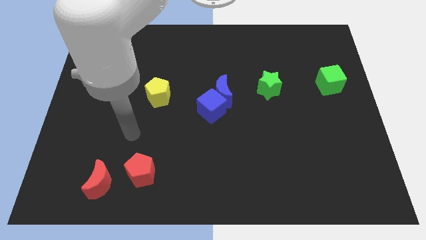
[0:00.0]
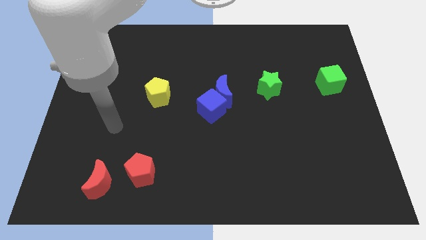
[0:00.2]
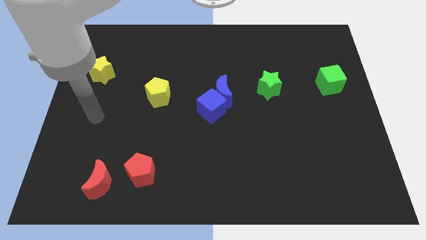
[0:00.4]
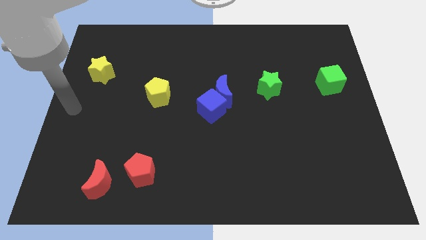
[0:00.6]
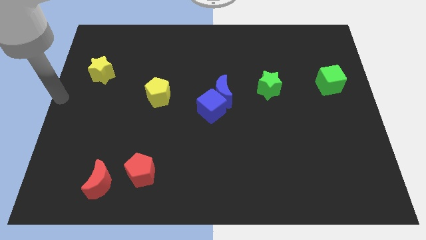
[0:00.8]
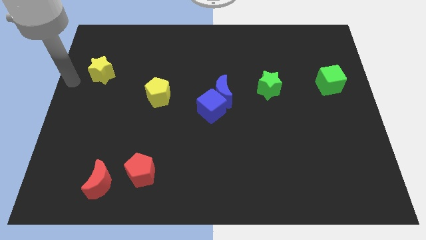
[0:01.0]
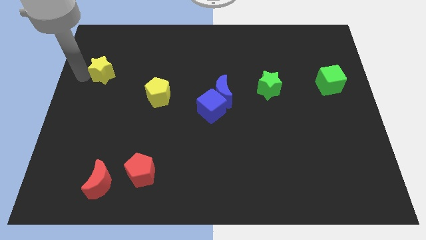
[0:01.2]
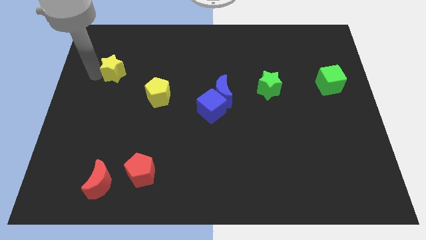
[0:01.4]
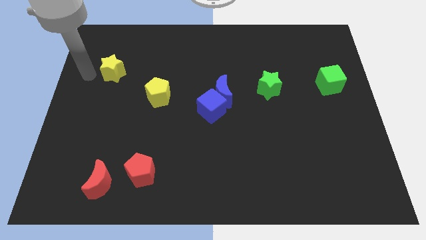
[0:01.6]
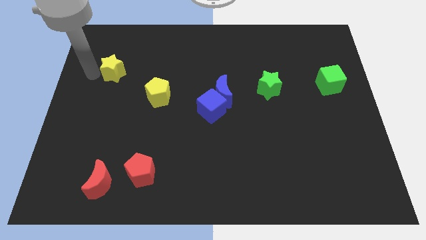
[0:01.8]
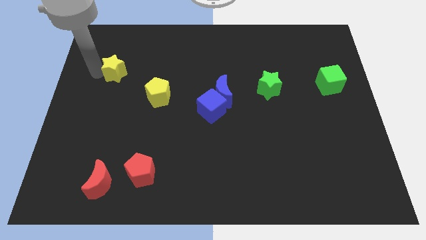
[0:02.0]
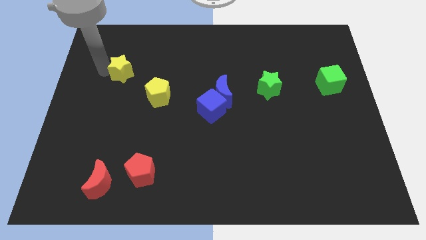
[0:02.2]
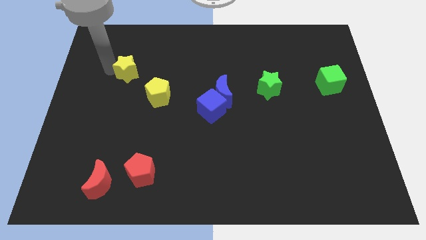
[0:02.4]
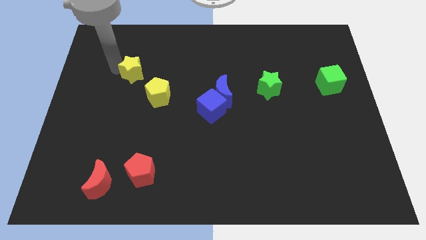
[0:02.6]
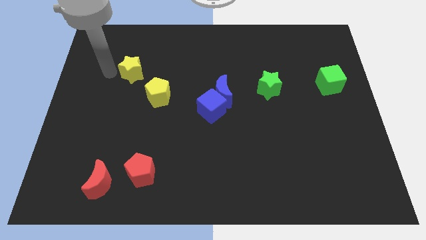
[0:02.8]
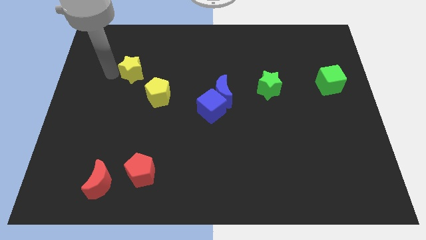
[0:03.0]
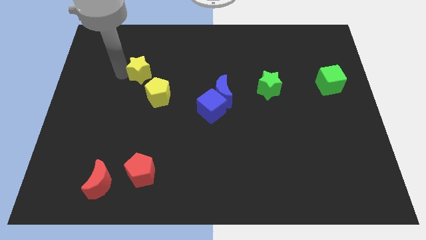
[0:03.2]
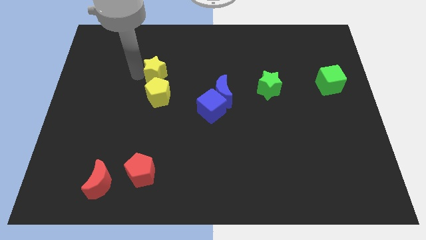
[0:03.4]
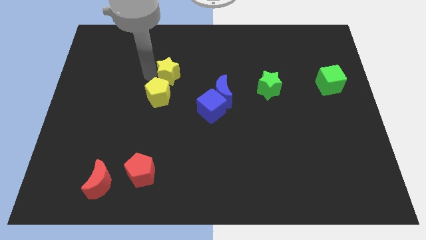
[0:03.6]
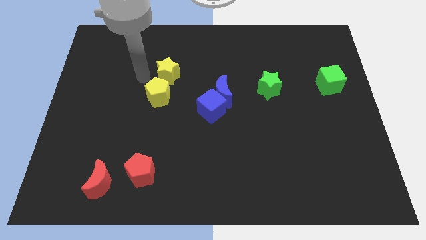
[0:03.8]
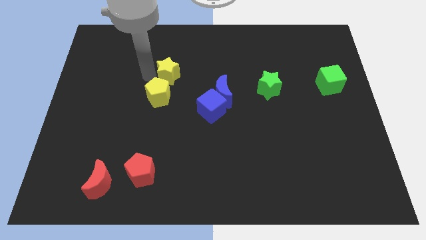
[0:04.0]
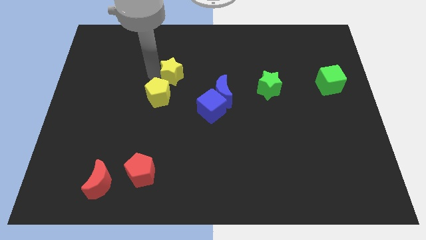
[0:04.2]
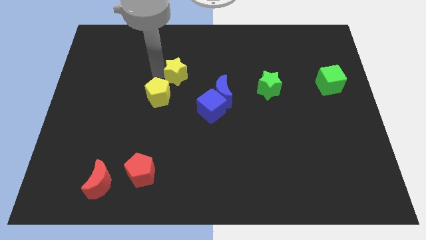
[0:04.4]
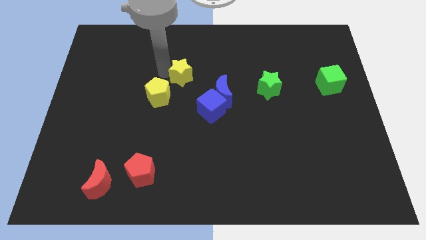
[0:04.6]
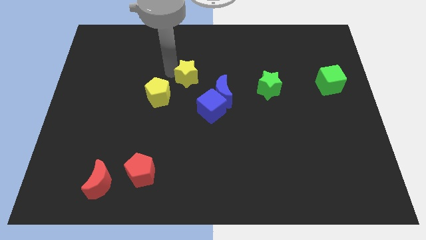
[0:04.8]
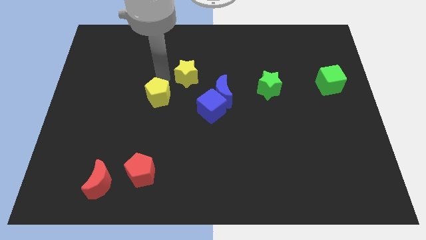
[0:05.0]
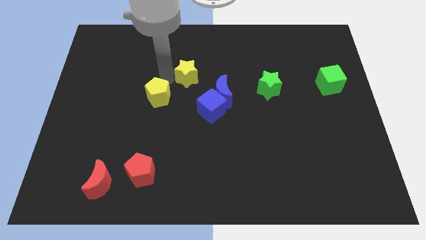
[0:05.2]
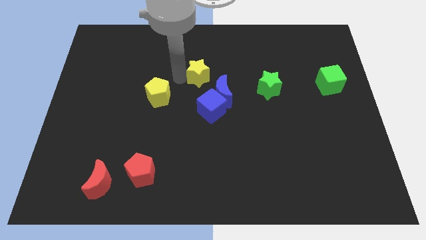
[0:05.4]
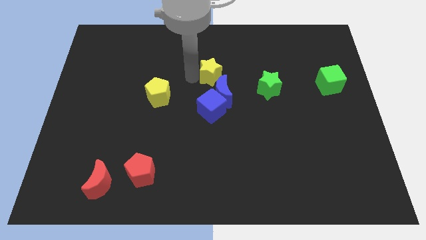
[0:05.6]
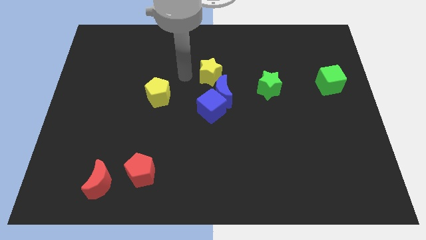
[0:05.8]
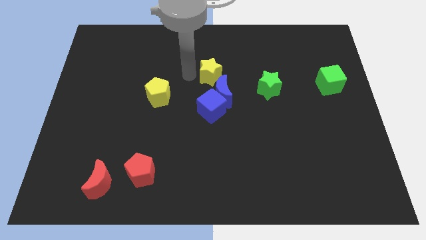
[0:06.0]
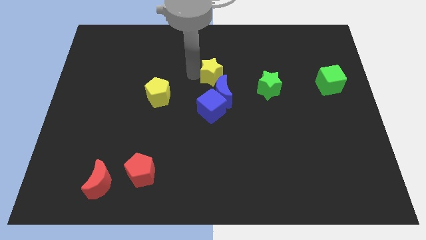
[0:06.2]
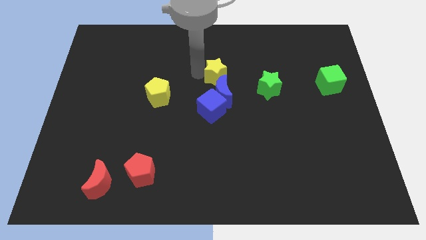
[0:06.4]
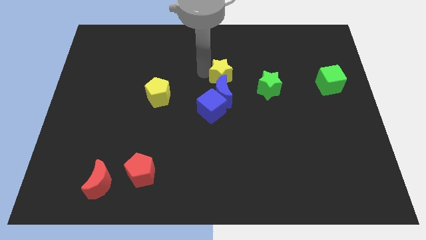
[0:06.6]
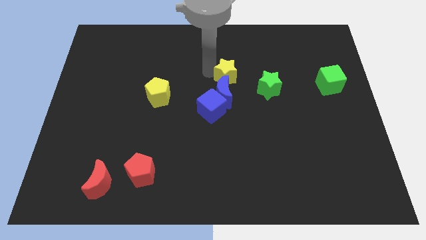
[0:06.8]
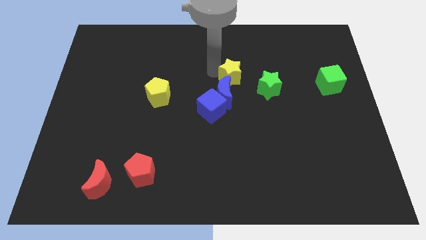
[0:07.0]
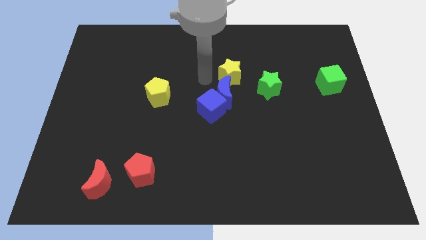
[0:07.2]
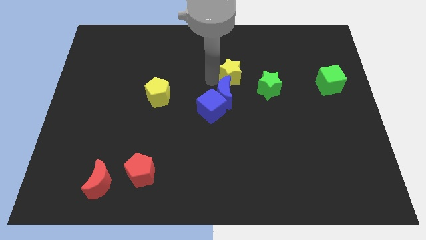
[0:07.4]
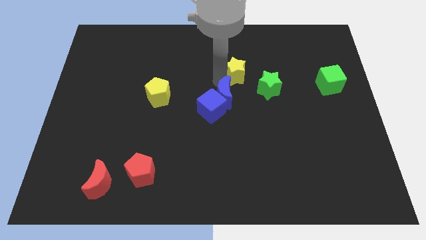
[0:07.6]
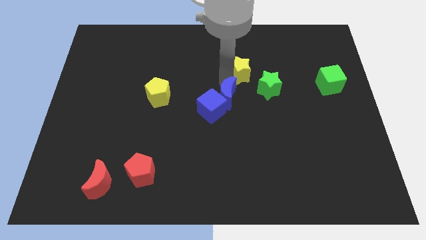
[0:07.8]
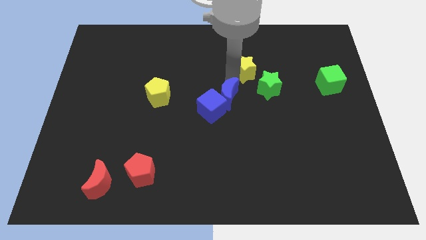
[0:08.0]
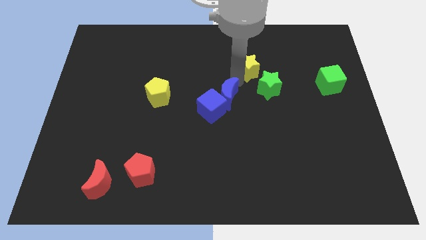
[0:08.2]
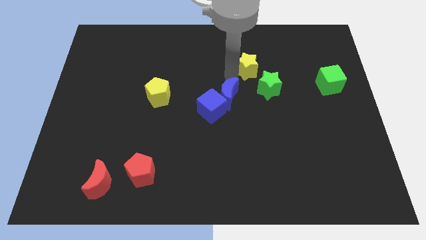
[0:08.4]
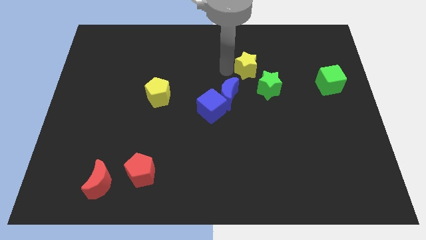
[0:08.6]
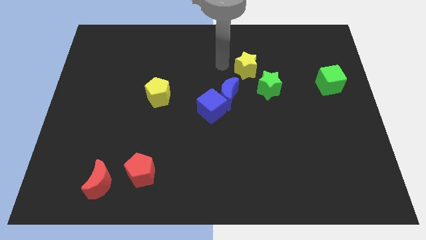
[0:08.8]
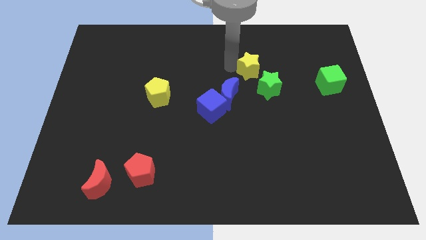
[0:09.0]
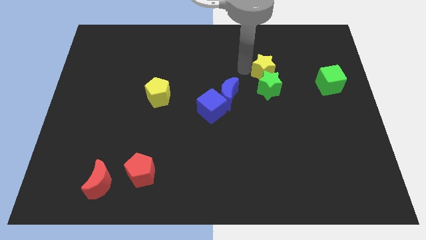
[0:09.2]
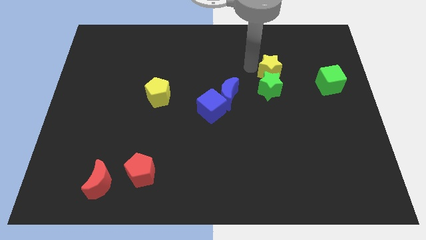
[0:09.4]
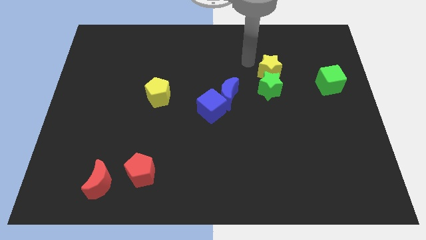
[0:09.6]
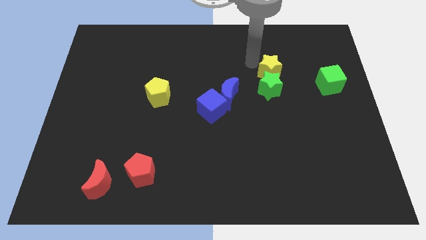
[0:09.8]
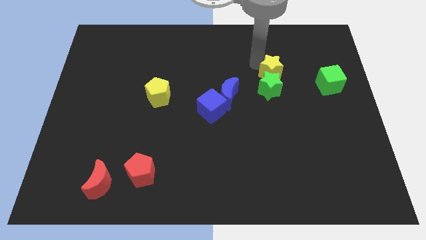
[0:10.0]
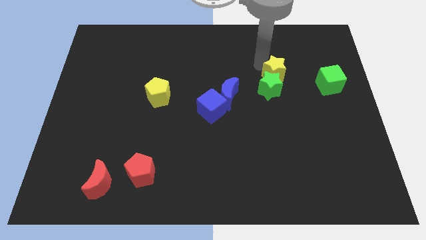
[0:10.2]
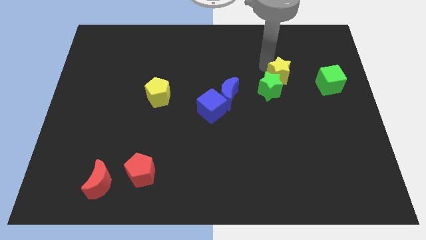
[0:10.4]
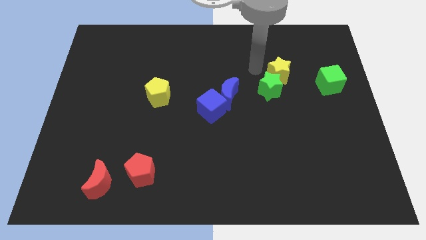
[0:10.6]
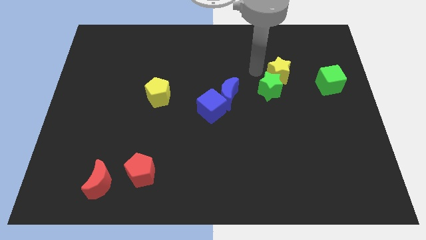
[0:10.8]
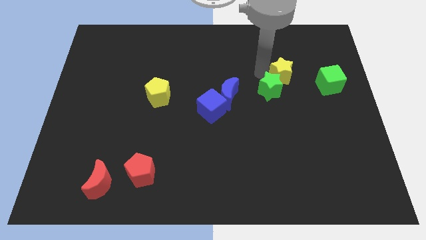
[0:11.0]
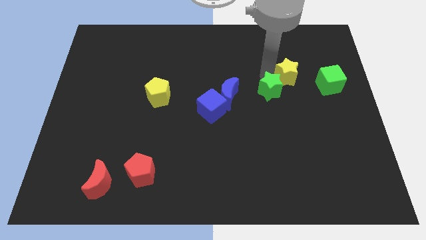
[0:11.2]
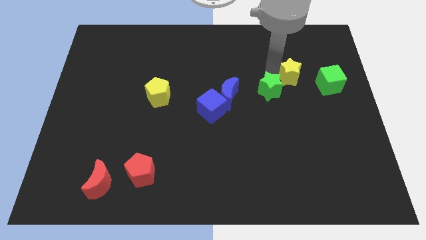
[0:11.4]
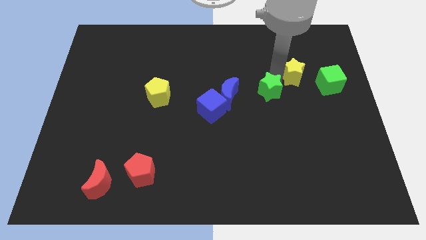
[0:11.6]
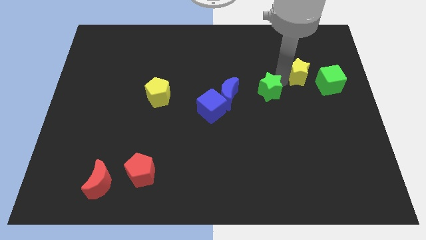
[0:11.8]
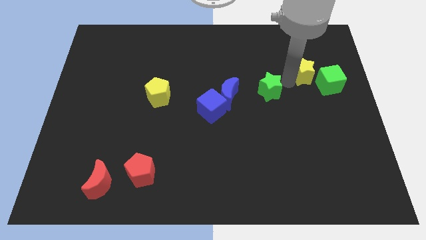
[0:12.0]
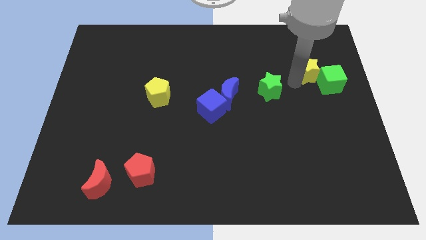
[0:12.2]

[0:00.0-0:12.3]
move the yellow star close to the green cube

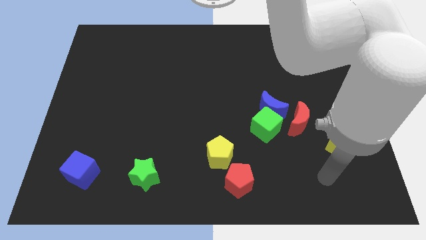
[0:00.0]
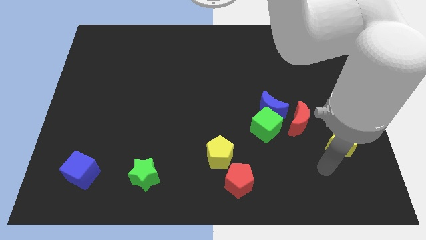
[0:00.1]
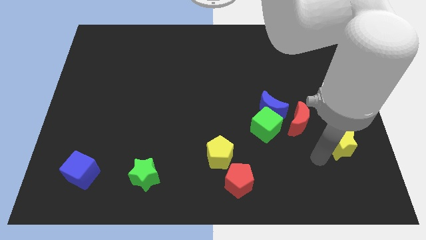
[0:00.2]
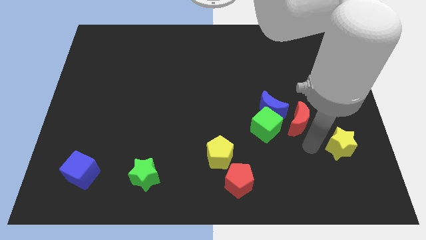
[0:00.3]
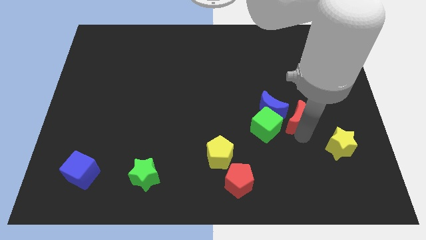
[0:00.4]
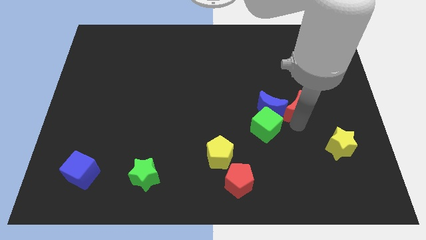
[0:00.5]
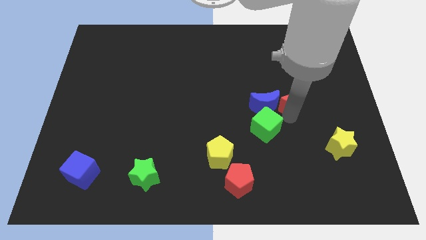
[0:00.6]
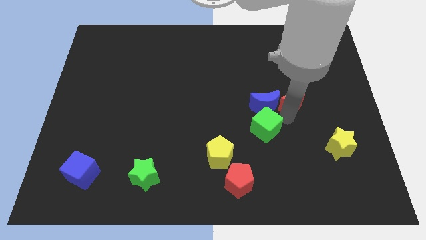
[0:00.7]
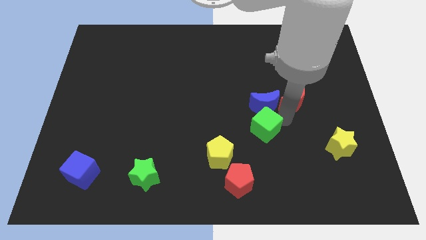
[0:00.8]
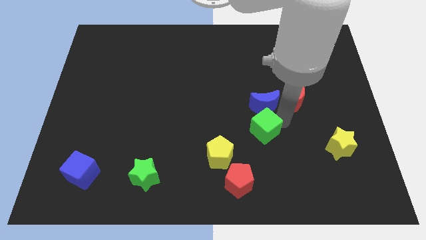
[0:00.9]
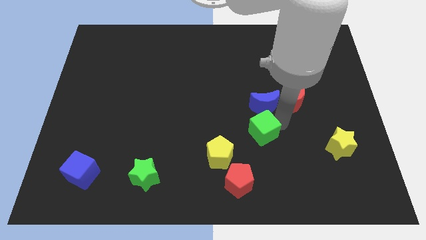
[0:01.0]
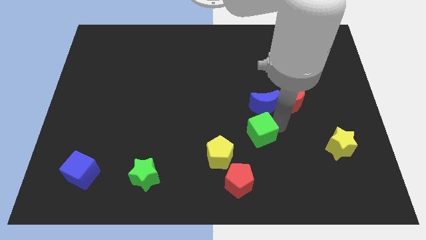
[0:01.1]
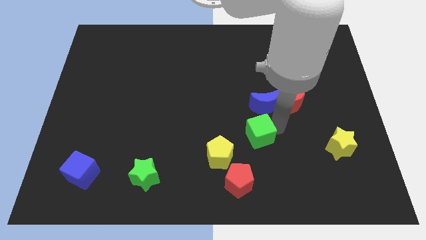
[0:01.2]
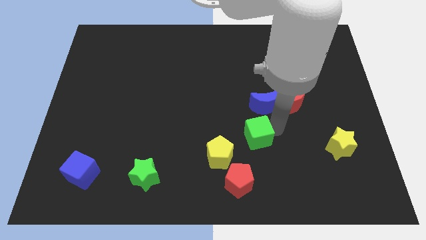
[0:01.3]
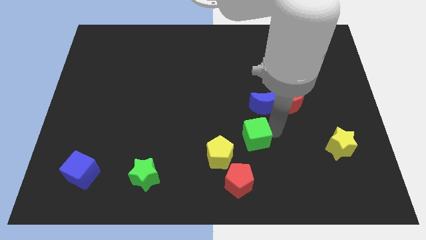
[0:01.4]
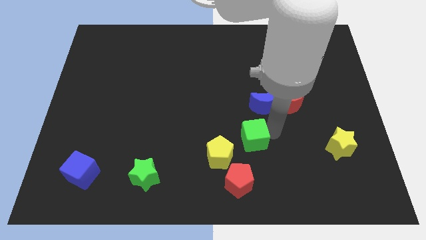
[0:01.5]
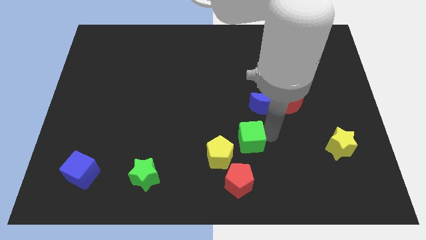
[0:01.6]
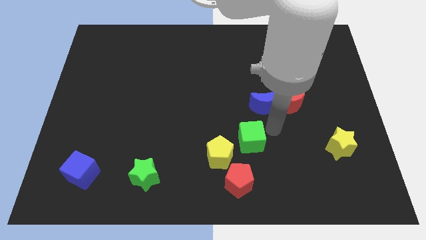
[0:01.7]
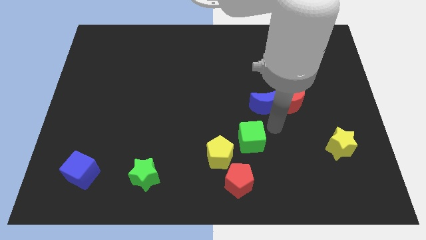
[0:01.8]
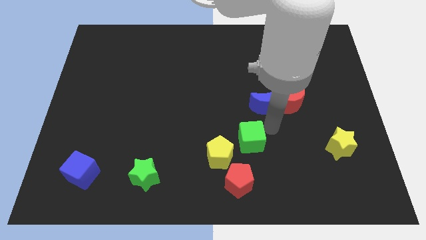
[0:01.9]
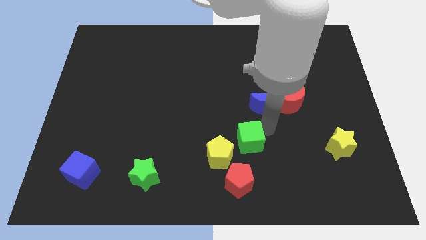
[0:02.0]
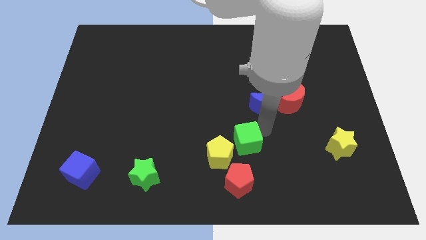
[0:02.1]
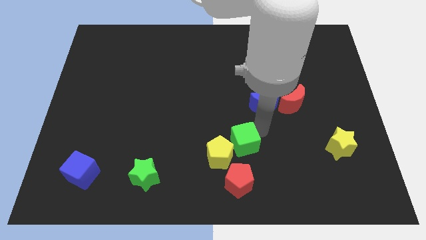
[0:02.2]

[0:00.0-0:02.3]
push the green cube next to the yellow pentagon
